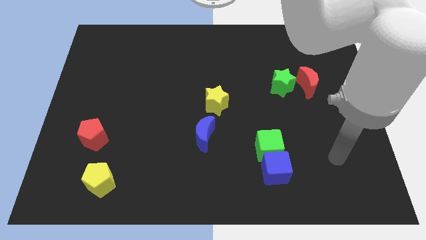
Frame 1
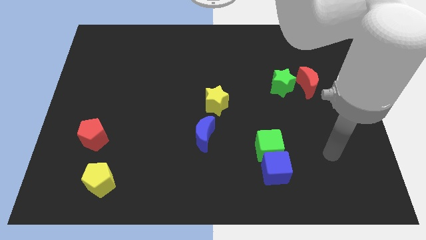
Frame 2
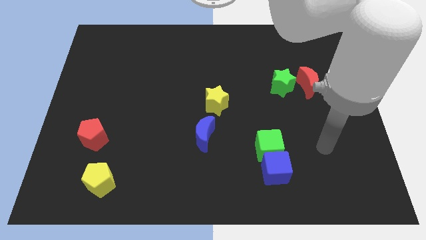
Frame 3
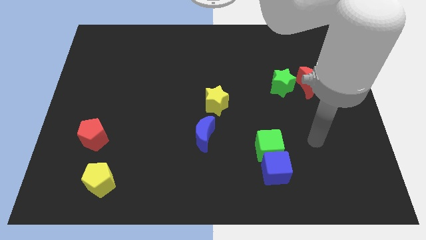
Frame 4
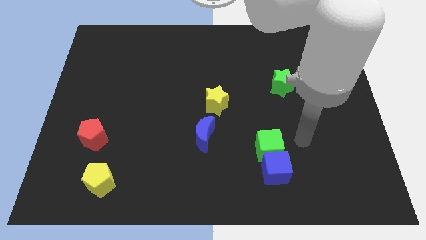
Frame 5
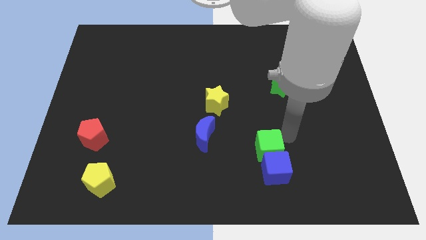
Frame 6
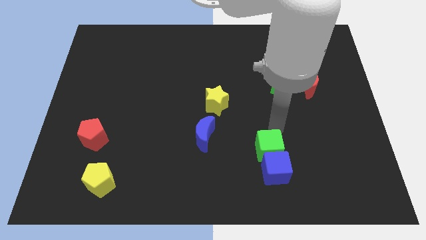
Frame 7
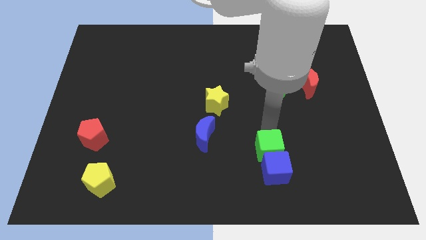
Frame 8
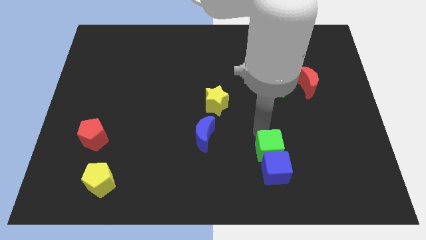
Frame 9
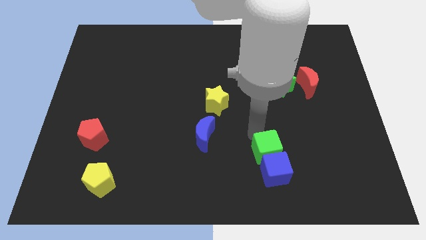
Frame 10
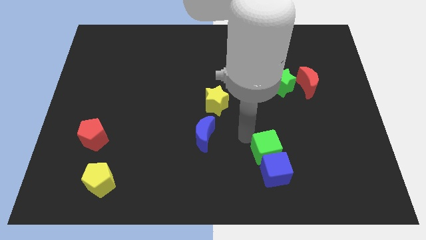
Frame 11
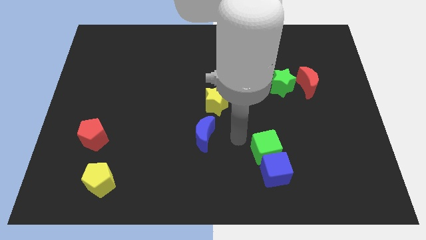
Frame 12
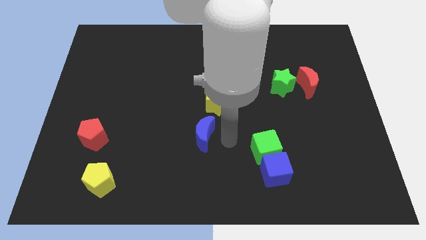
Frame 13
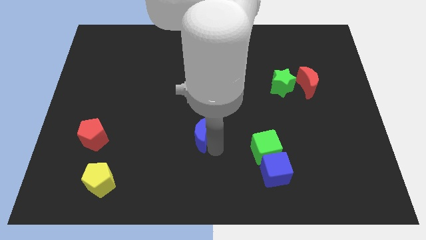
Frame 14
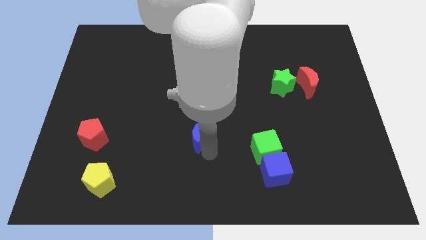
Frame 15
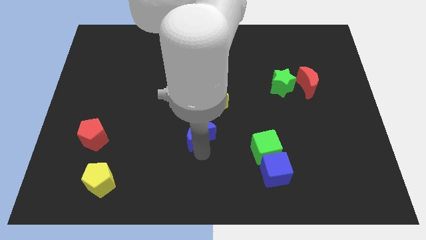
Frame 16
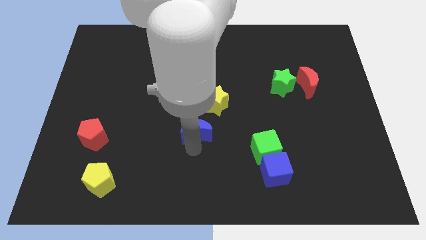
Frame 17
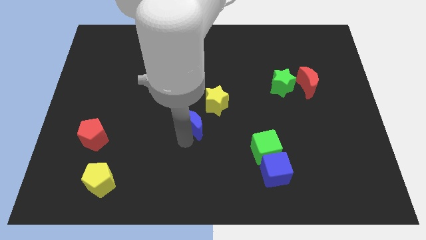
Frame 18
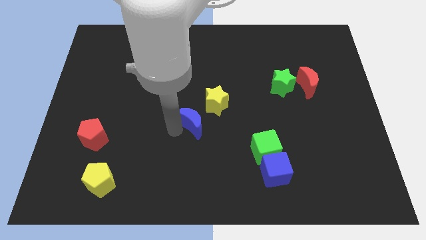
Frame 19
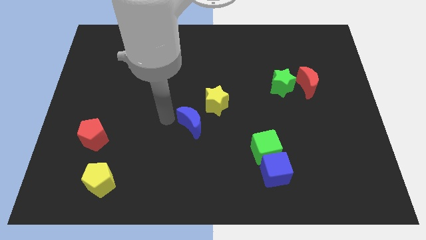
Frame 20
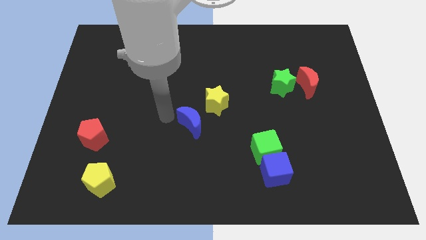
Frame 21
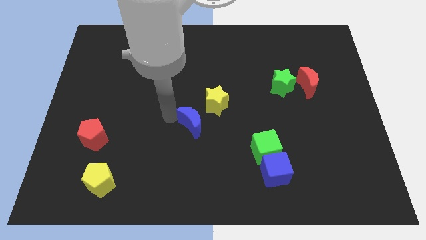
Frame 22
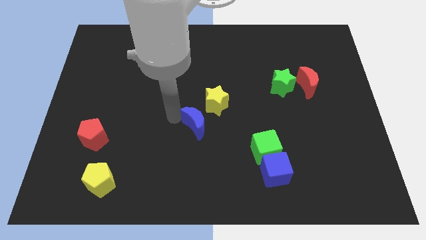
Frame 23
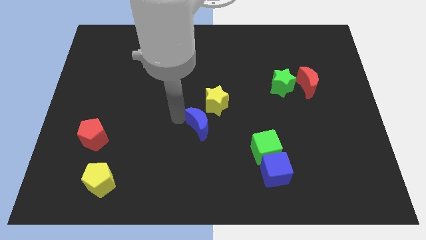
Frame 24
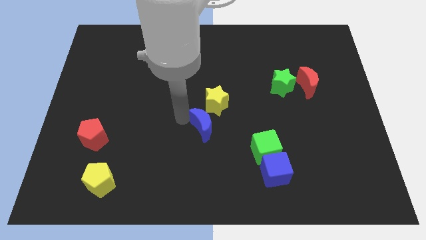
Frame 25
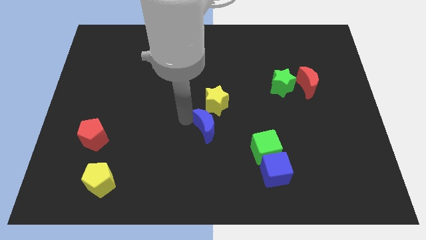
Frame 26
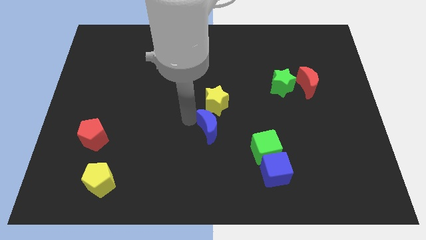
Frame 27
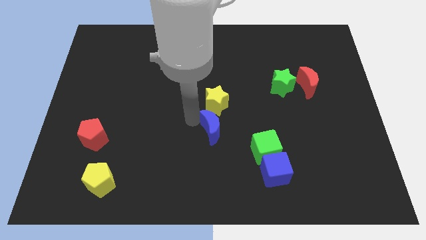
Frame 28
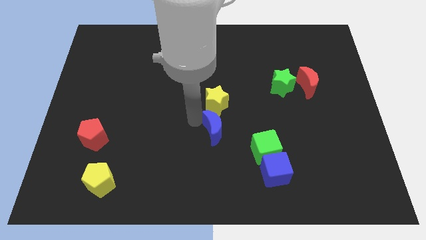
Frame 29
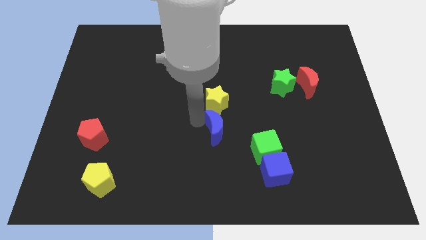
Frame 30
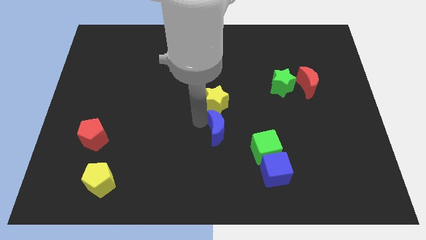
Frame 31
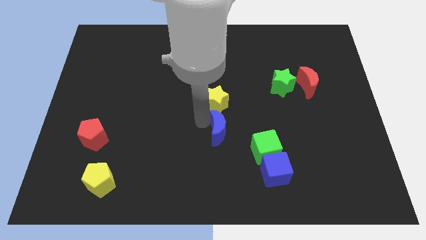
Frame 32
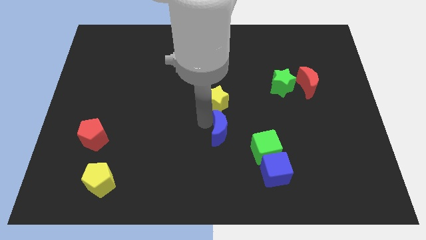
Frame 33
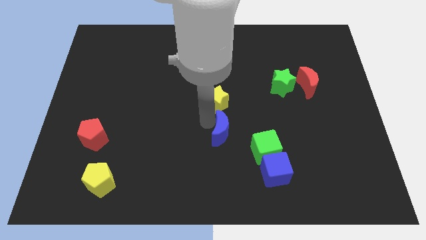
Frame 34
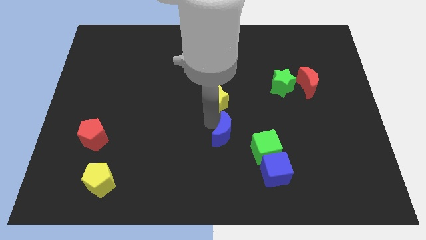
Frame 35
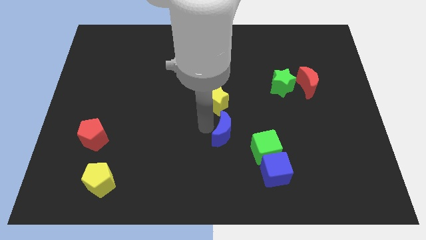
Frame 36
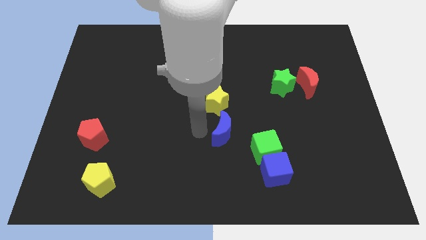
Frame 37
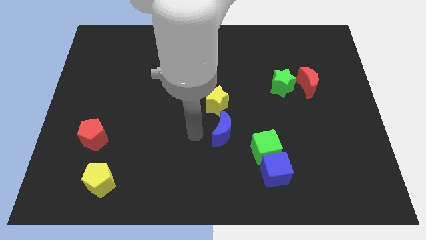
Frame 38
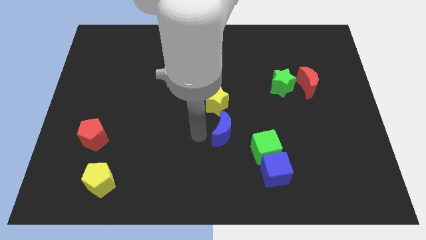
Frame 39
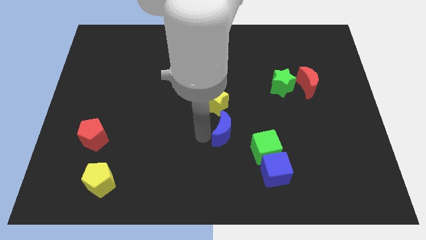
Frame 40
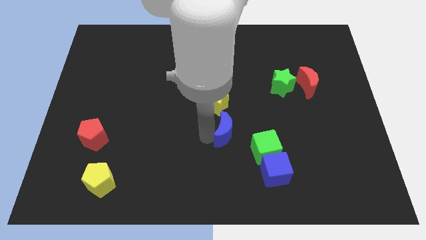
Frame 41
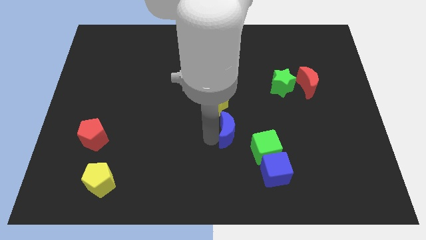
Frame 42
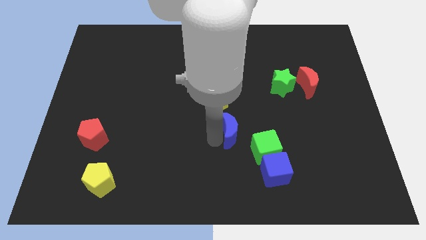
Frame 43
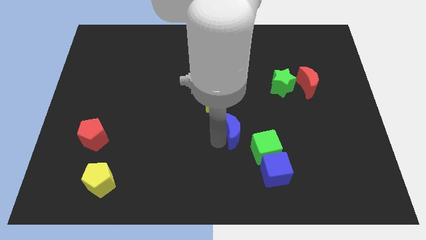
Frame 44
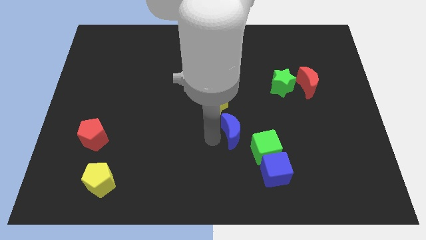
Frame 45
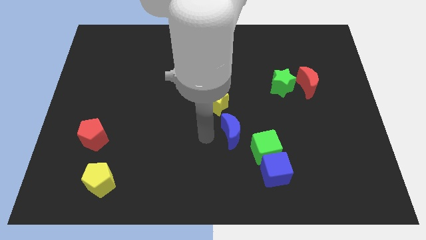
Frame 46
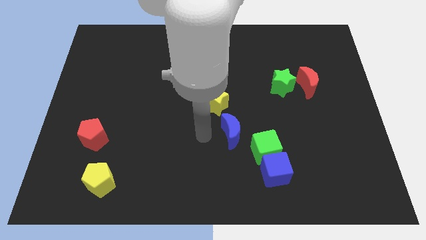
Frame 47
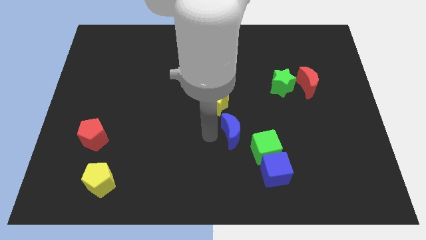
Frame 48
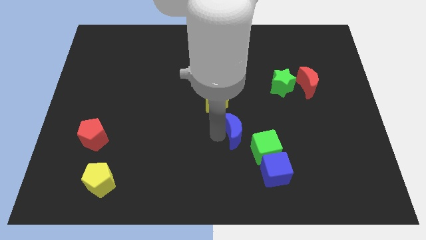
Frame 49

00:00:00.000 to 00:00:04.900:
slightly move the blue moon right

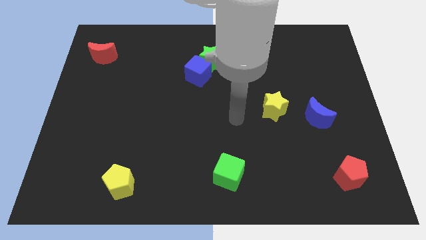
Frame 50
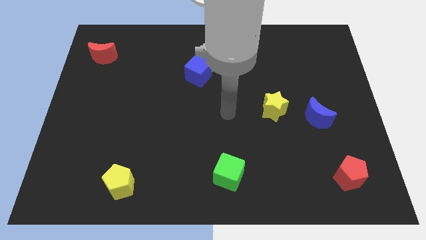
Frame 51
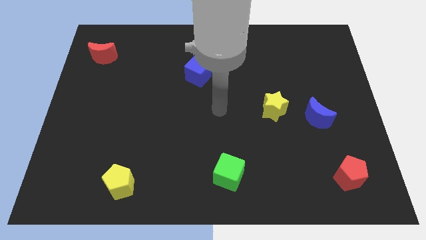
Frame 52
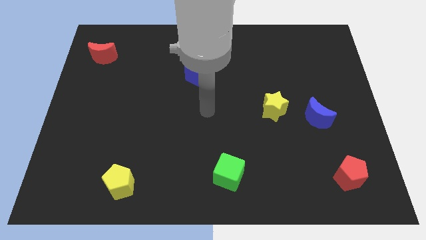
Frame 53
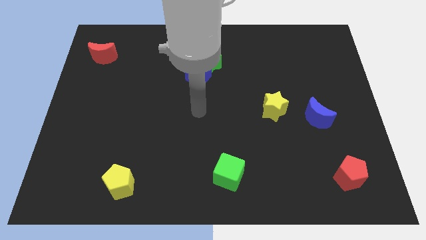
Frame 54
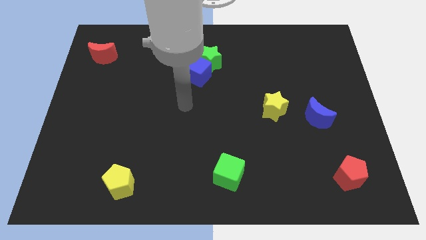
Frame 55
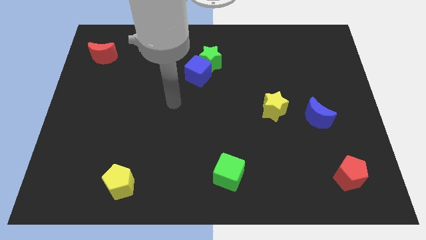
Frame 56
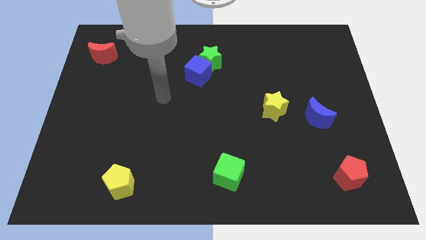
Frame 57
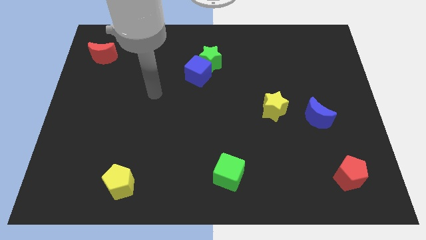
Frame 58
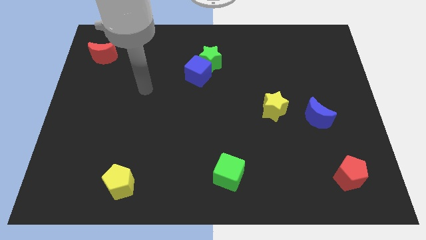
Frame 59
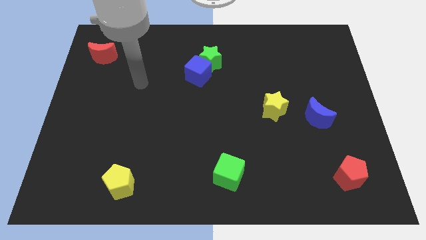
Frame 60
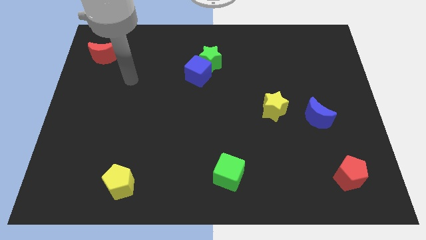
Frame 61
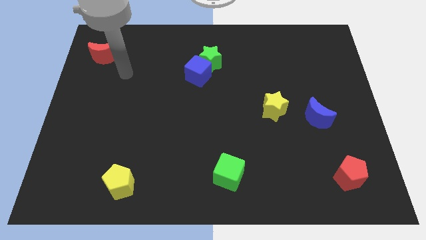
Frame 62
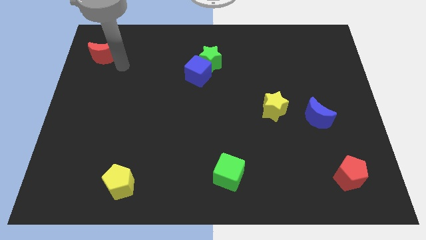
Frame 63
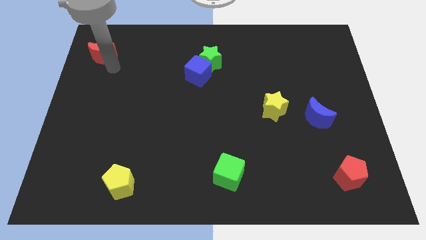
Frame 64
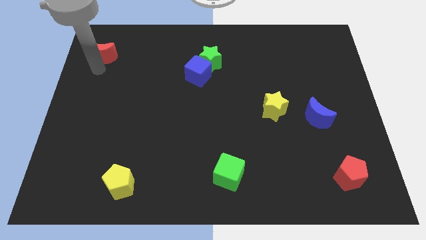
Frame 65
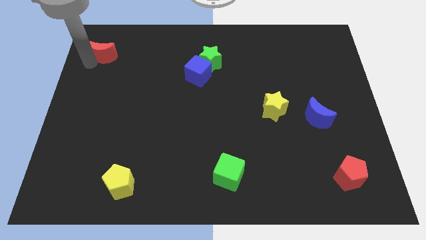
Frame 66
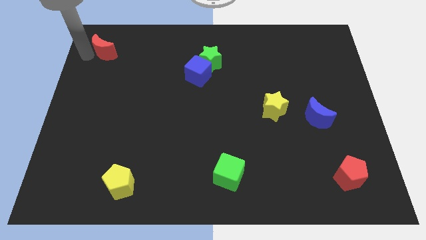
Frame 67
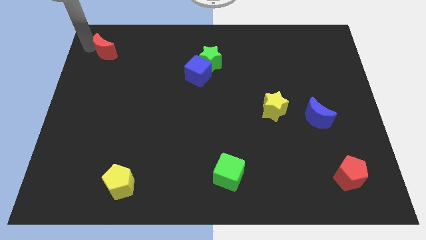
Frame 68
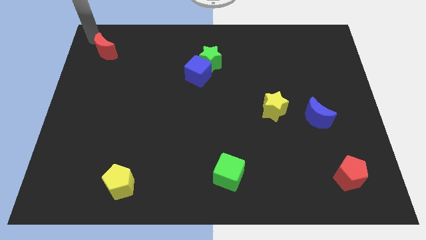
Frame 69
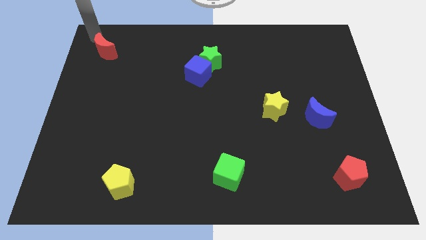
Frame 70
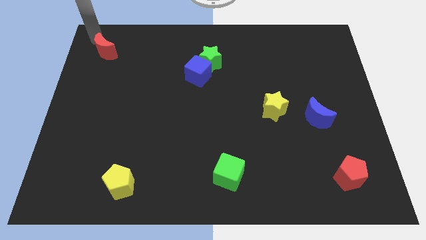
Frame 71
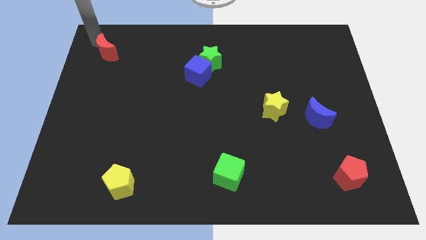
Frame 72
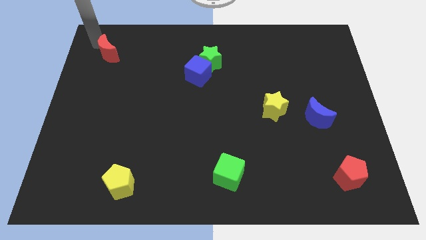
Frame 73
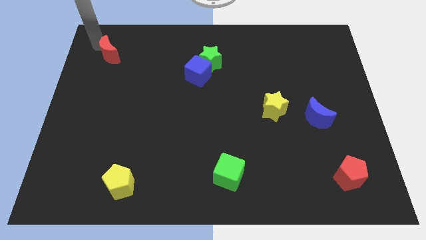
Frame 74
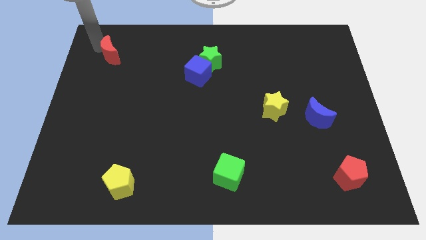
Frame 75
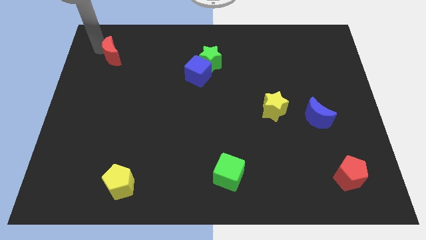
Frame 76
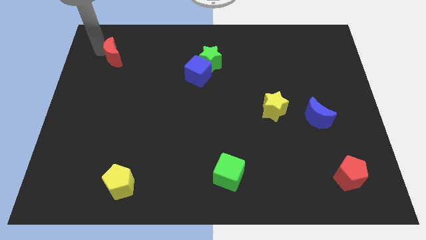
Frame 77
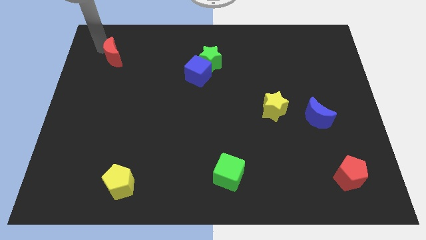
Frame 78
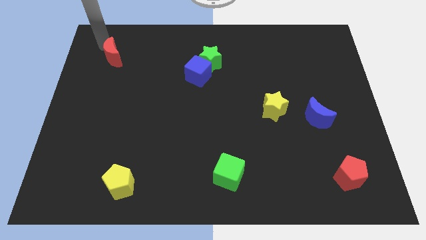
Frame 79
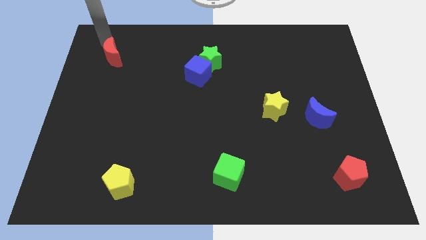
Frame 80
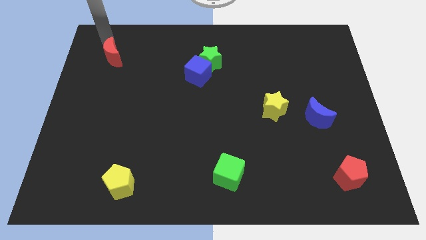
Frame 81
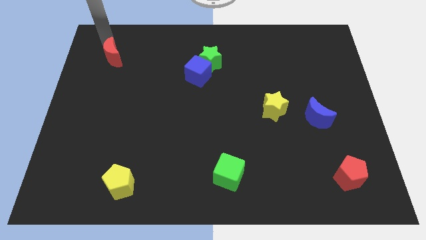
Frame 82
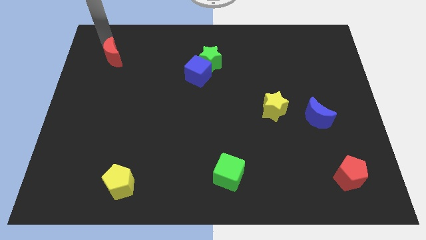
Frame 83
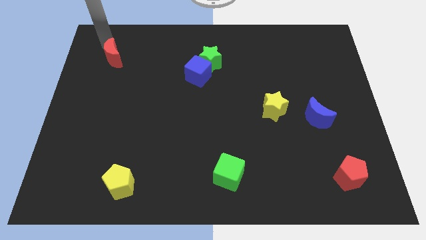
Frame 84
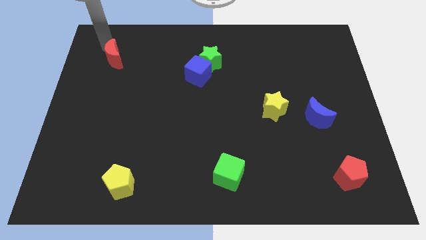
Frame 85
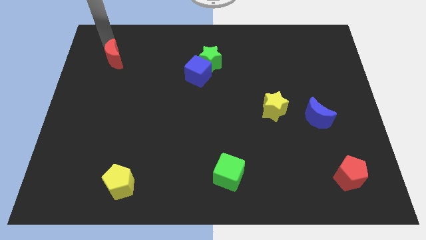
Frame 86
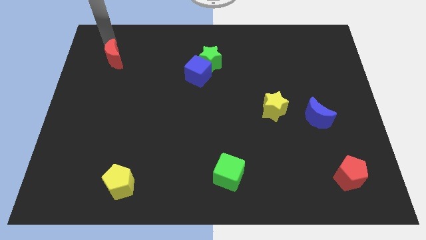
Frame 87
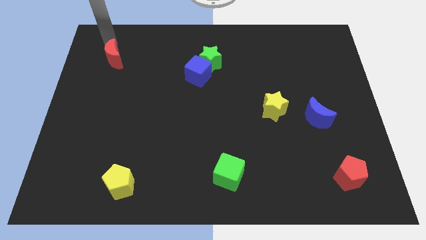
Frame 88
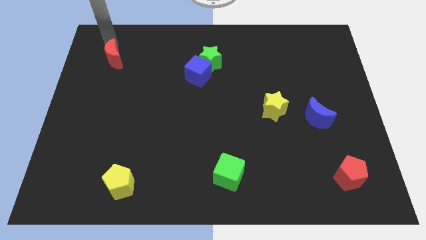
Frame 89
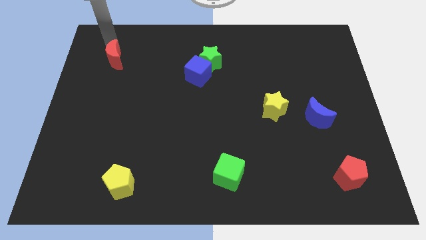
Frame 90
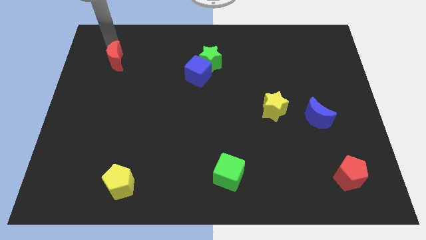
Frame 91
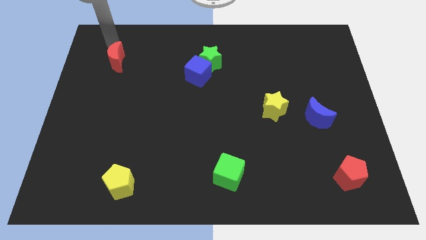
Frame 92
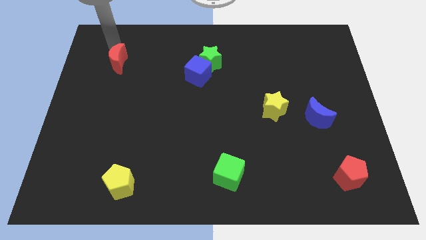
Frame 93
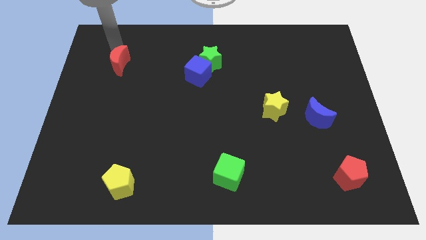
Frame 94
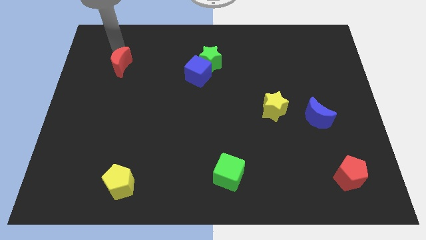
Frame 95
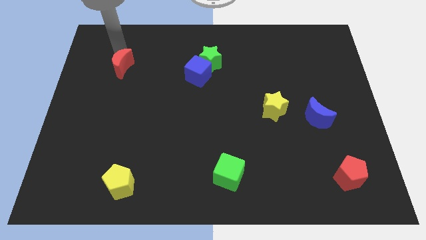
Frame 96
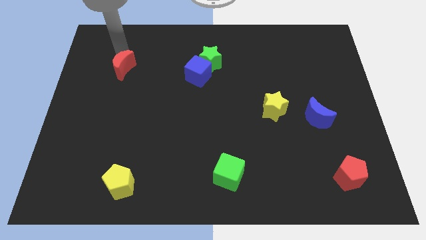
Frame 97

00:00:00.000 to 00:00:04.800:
move the red moon downwards and right a little bit
